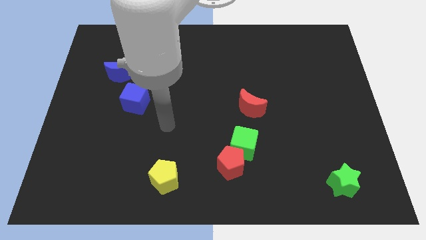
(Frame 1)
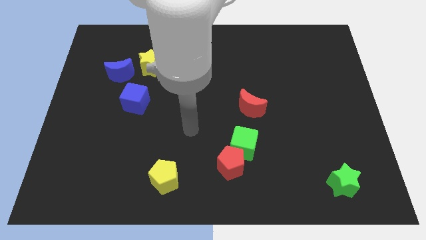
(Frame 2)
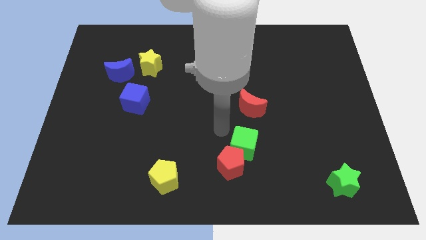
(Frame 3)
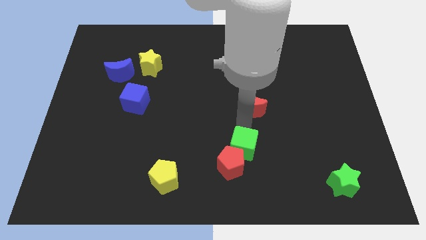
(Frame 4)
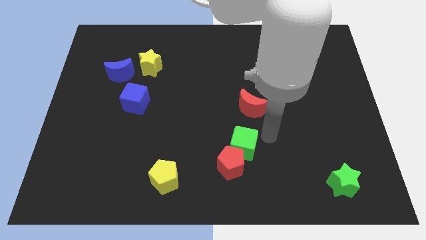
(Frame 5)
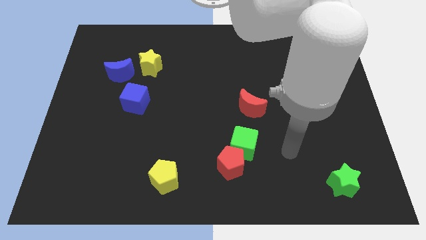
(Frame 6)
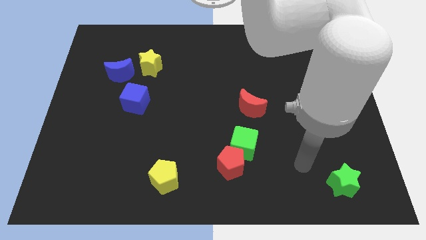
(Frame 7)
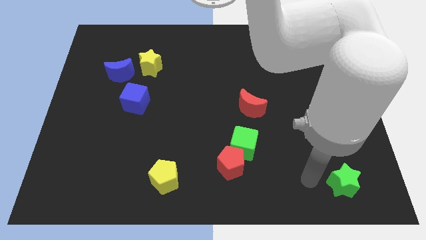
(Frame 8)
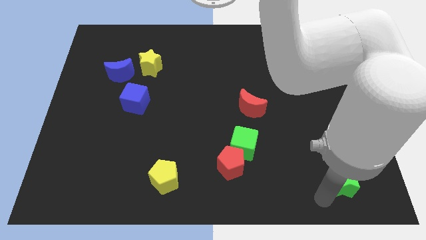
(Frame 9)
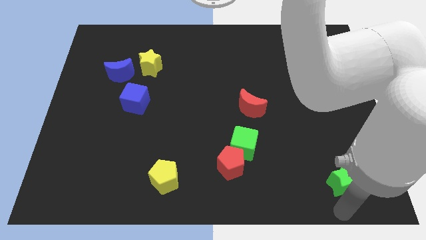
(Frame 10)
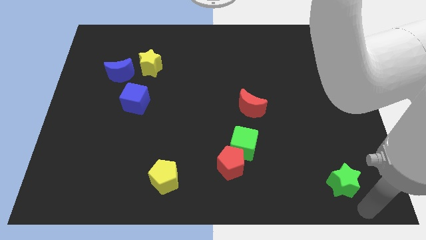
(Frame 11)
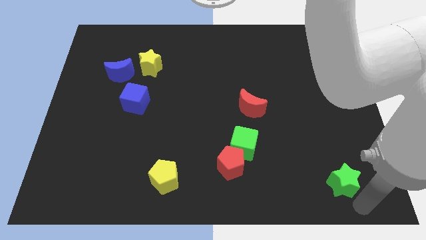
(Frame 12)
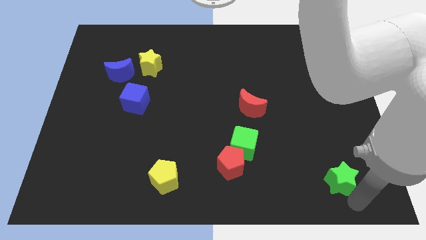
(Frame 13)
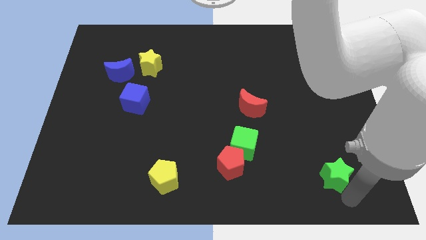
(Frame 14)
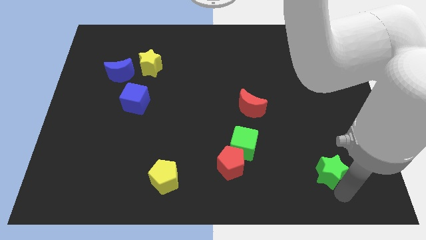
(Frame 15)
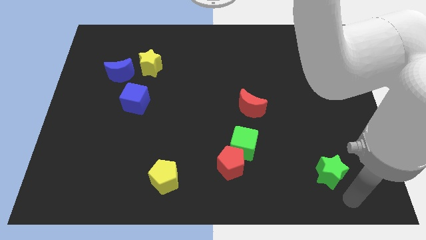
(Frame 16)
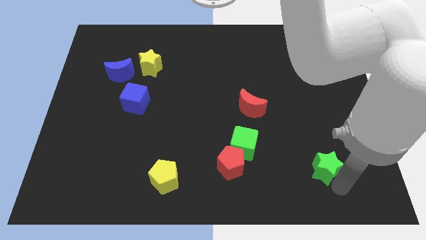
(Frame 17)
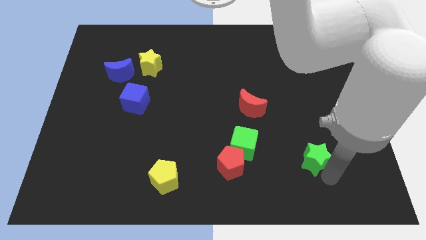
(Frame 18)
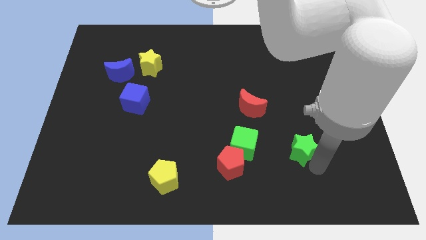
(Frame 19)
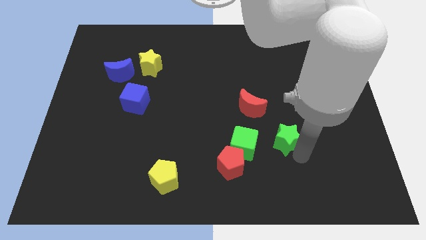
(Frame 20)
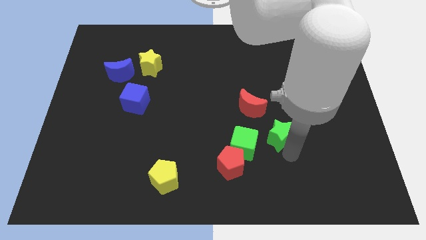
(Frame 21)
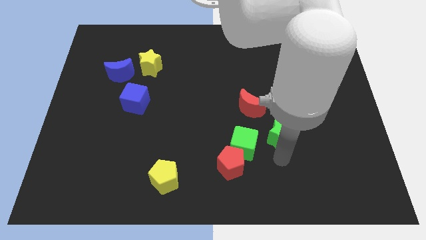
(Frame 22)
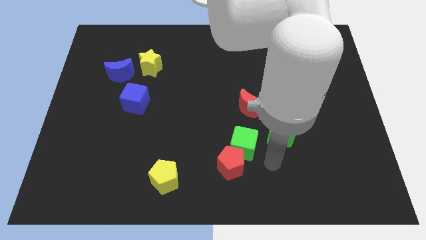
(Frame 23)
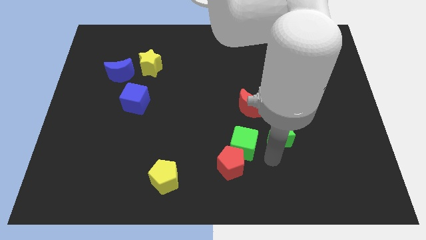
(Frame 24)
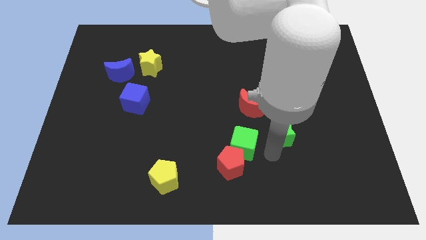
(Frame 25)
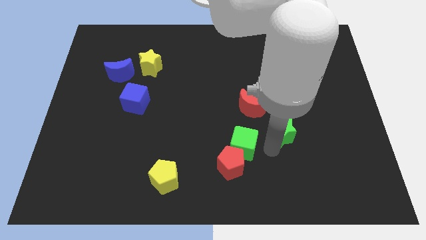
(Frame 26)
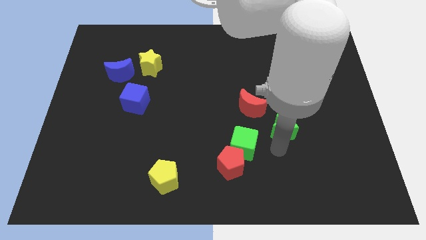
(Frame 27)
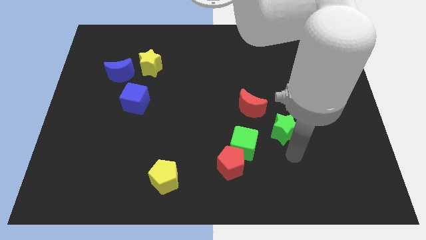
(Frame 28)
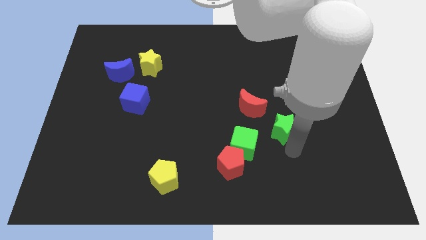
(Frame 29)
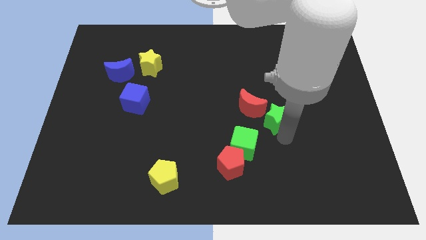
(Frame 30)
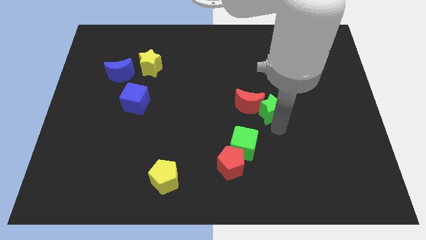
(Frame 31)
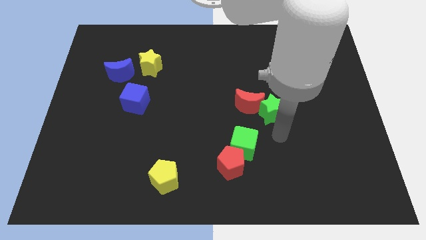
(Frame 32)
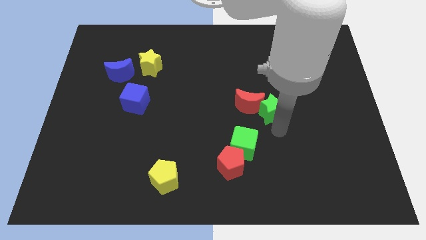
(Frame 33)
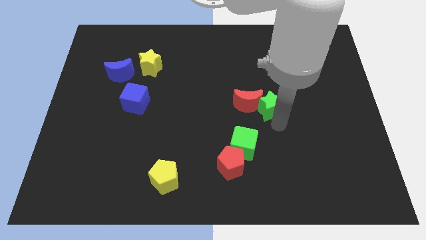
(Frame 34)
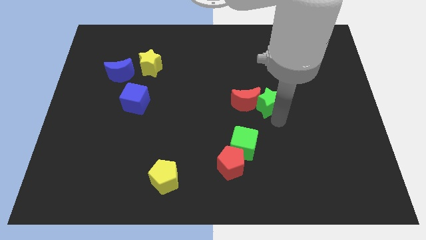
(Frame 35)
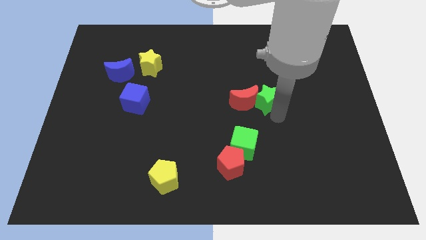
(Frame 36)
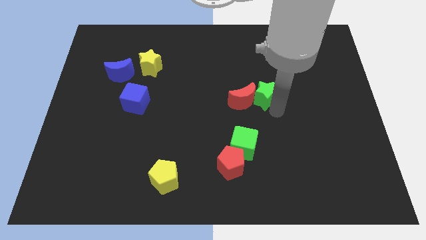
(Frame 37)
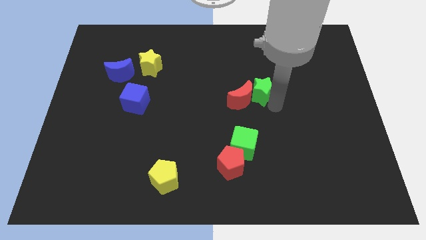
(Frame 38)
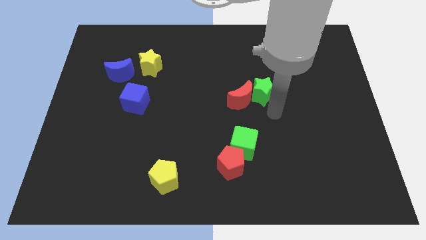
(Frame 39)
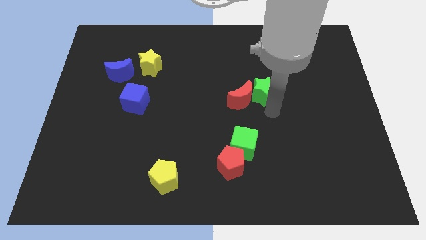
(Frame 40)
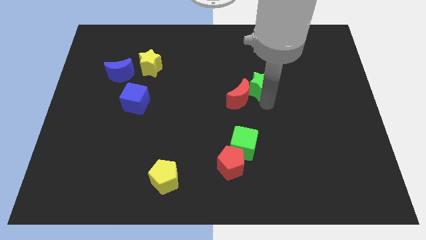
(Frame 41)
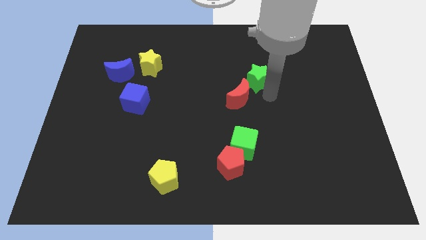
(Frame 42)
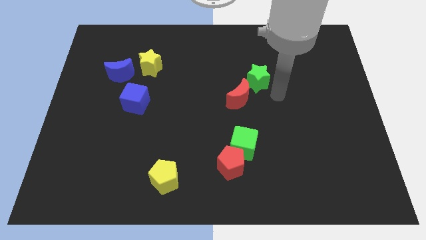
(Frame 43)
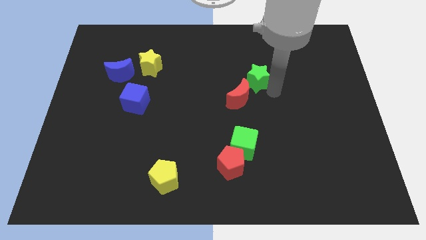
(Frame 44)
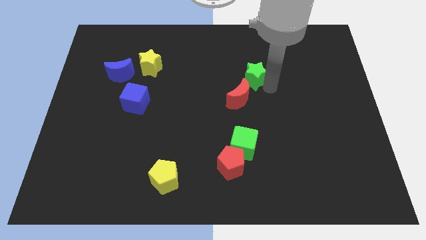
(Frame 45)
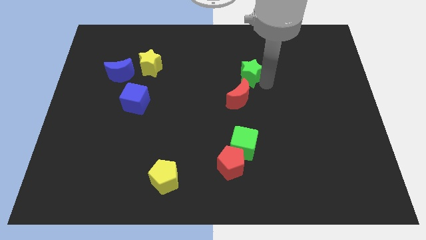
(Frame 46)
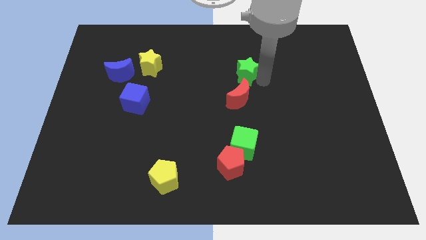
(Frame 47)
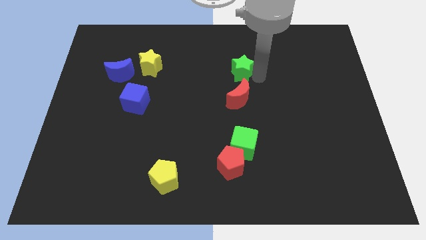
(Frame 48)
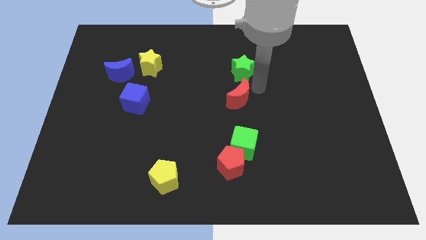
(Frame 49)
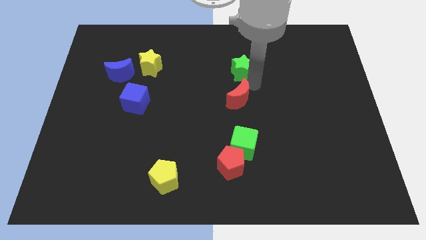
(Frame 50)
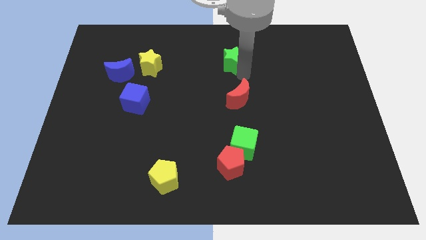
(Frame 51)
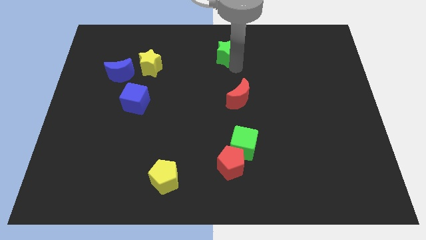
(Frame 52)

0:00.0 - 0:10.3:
slide the green star to the towards your base

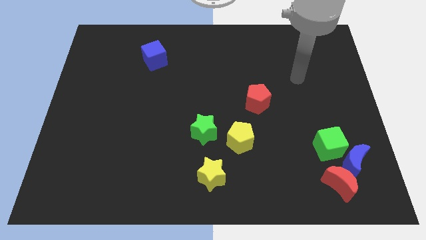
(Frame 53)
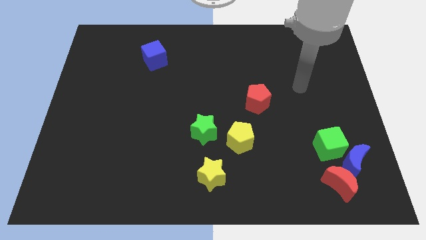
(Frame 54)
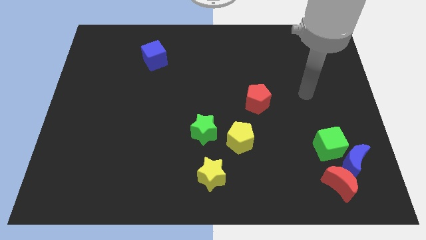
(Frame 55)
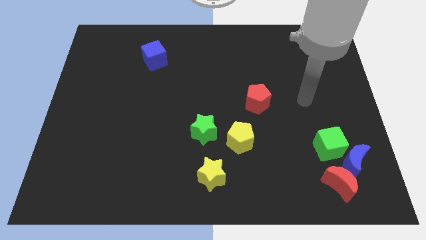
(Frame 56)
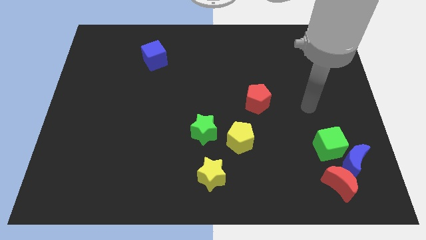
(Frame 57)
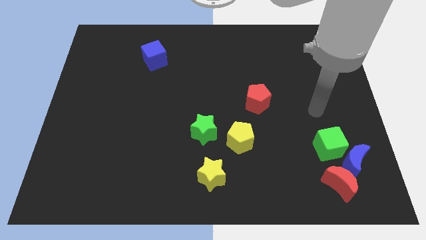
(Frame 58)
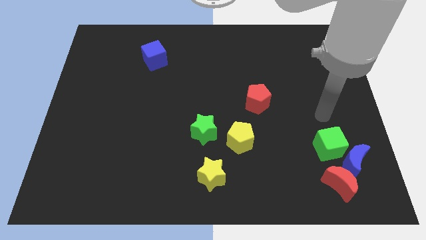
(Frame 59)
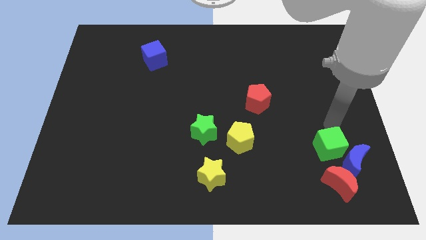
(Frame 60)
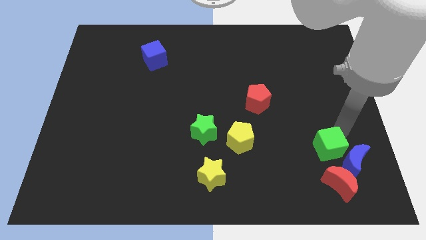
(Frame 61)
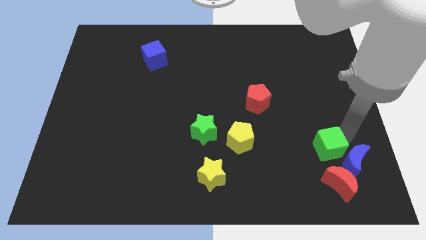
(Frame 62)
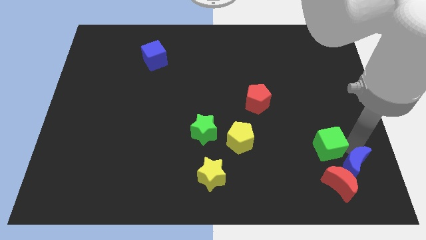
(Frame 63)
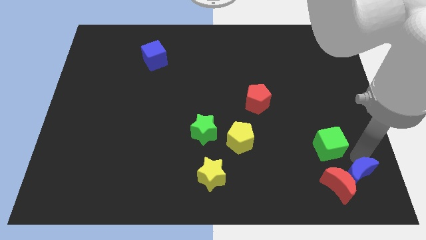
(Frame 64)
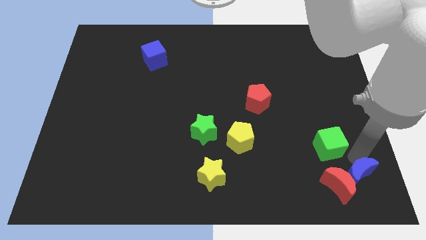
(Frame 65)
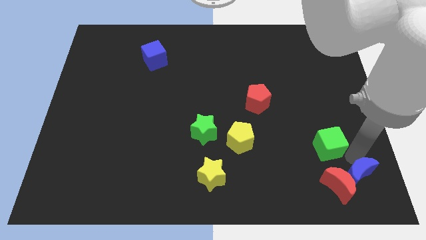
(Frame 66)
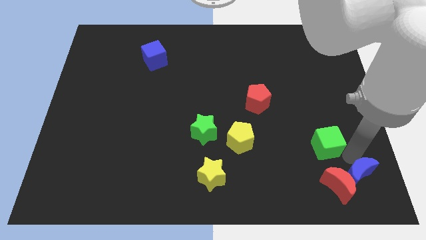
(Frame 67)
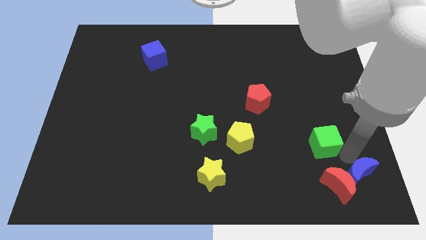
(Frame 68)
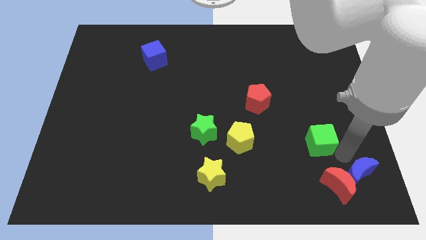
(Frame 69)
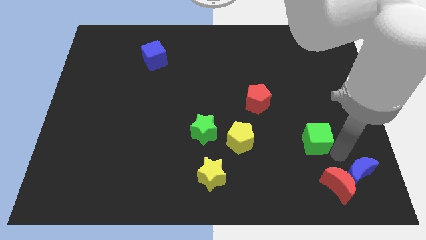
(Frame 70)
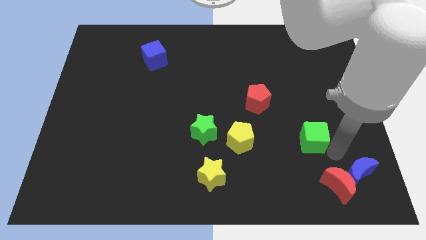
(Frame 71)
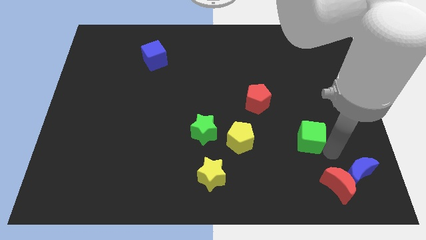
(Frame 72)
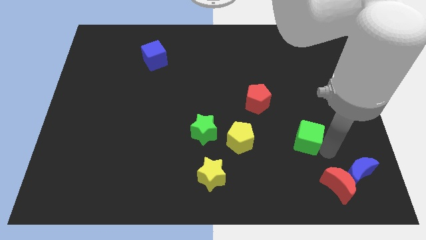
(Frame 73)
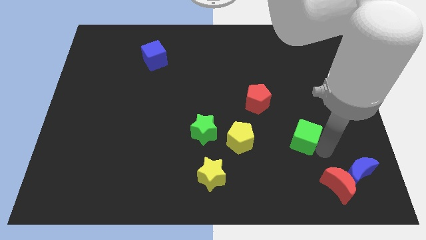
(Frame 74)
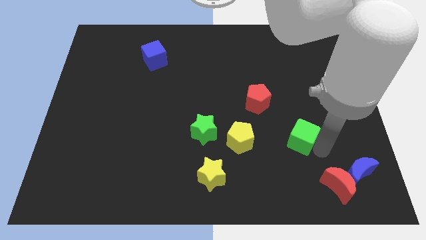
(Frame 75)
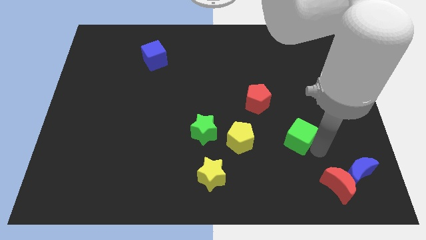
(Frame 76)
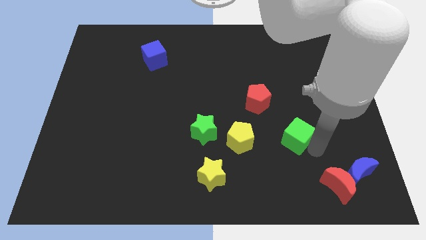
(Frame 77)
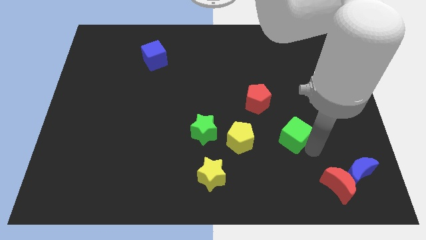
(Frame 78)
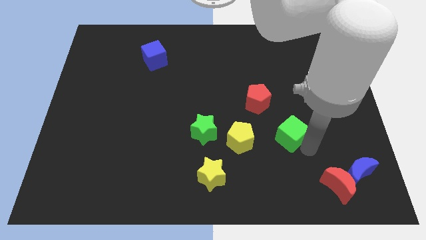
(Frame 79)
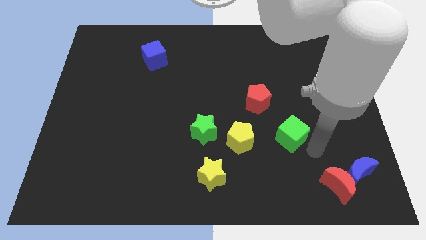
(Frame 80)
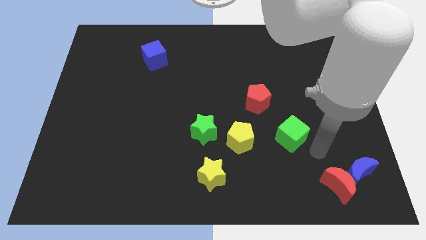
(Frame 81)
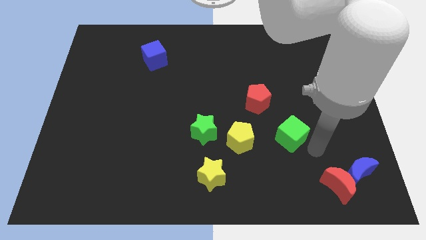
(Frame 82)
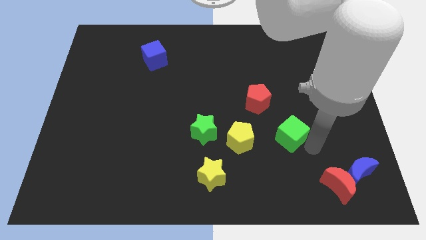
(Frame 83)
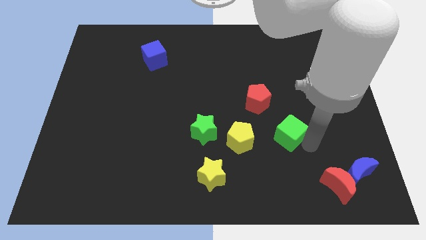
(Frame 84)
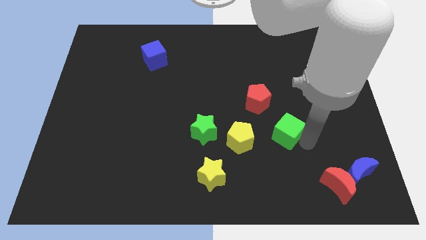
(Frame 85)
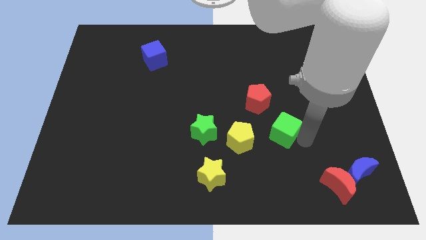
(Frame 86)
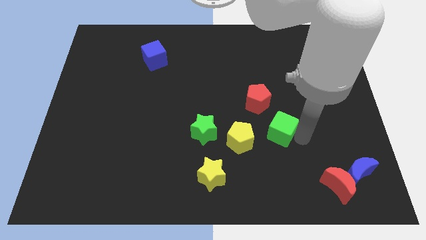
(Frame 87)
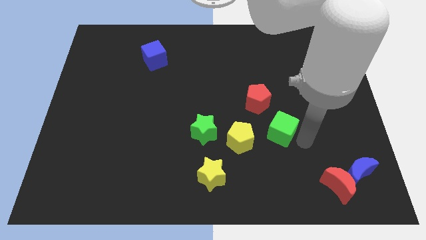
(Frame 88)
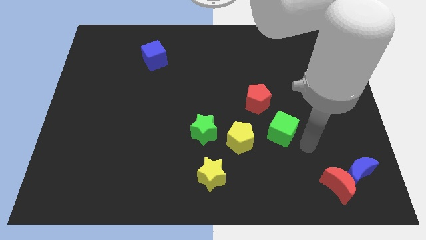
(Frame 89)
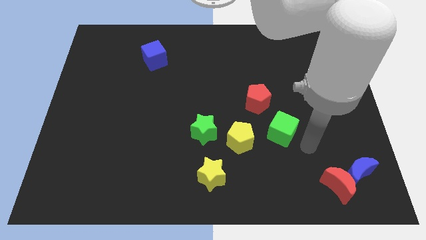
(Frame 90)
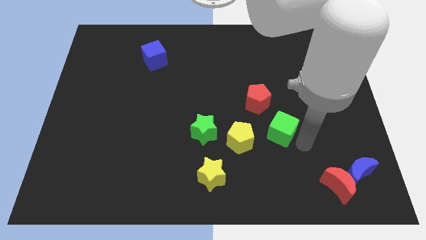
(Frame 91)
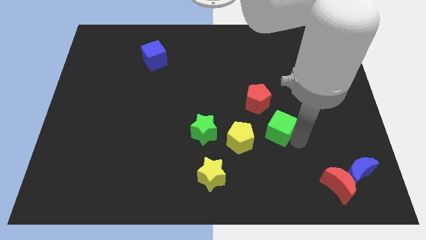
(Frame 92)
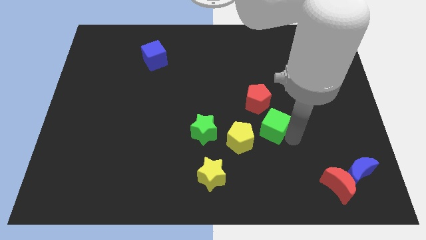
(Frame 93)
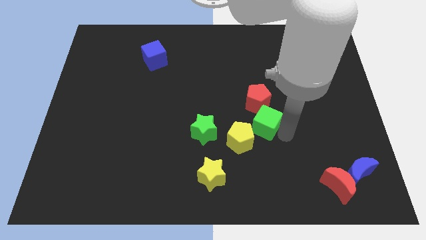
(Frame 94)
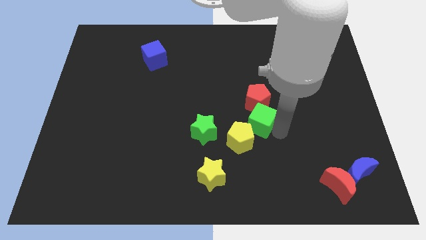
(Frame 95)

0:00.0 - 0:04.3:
push the green cube to the middle of the board
